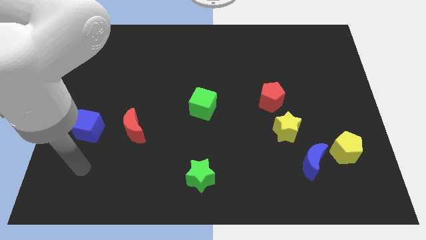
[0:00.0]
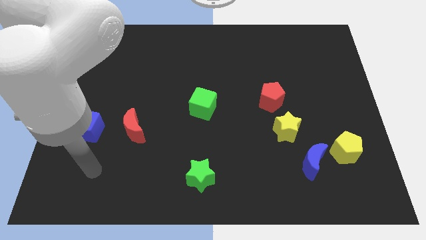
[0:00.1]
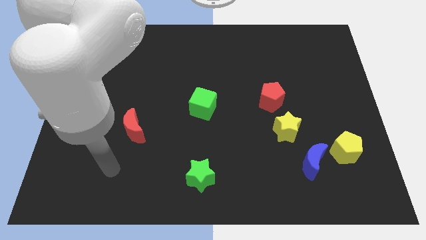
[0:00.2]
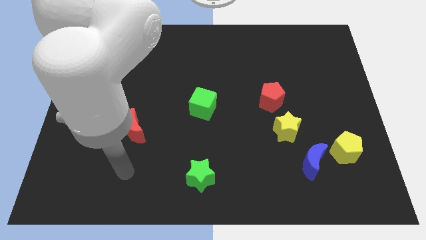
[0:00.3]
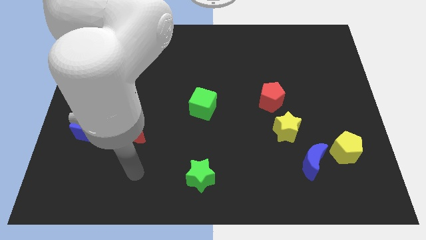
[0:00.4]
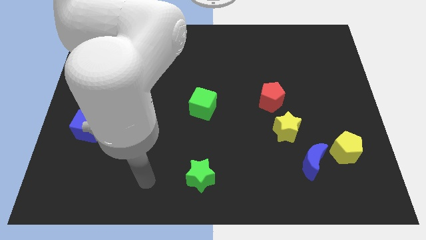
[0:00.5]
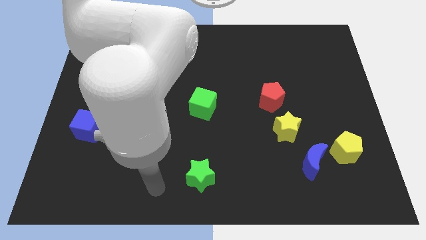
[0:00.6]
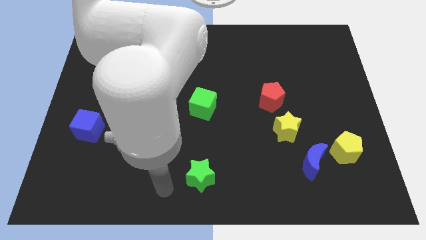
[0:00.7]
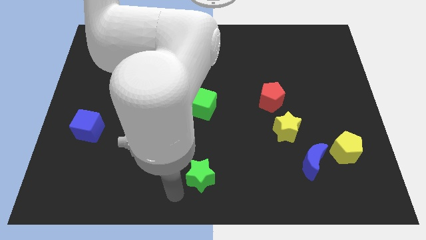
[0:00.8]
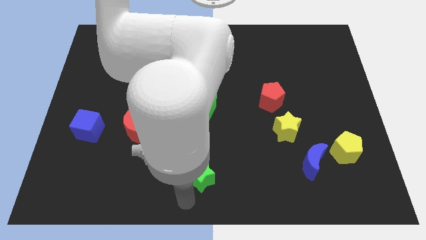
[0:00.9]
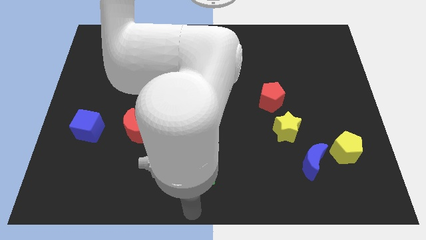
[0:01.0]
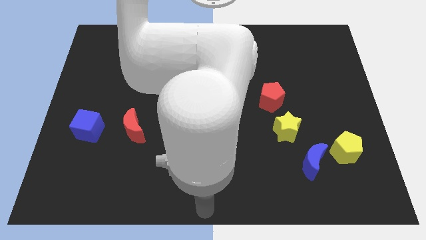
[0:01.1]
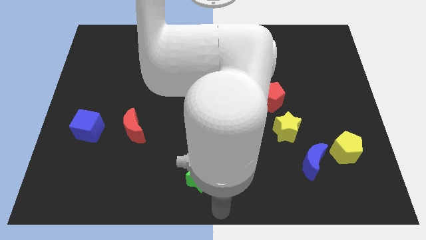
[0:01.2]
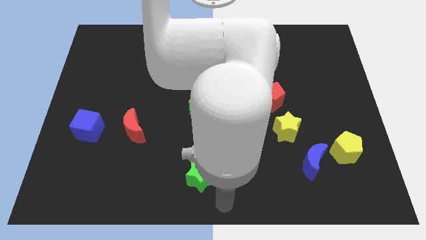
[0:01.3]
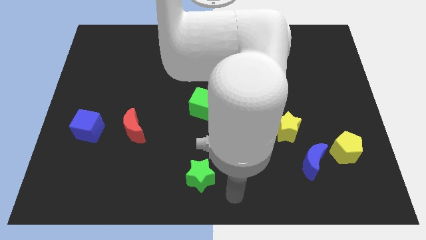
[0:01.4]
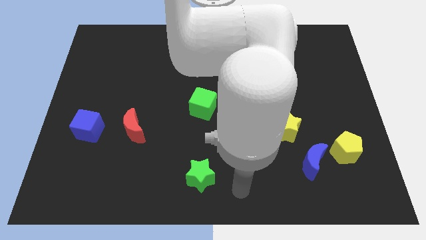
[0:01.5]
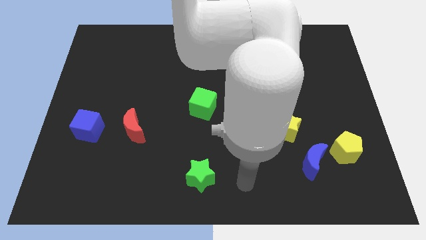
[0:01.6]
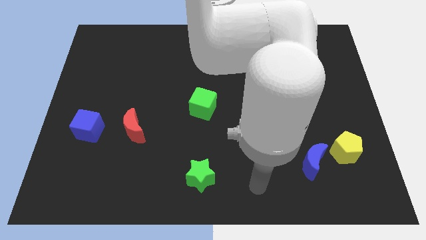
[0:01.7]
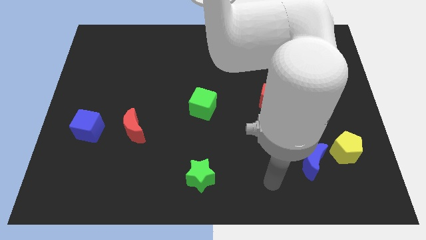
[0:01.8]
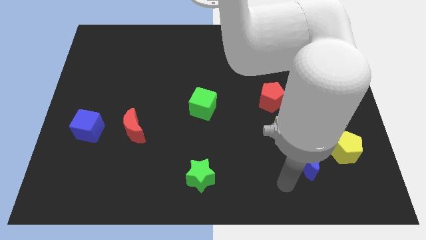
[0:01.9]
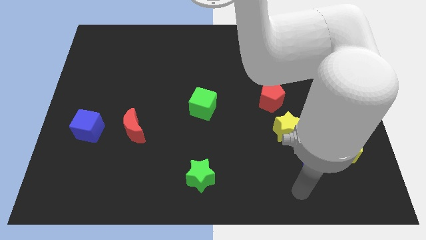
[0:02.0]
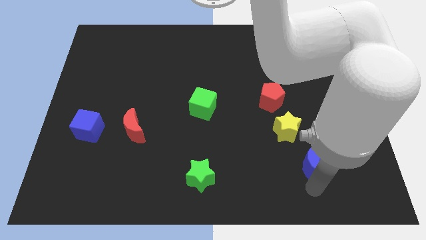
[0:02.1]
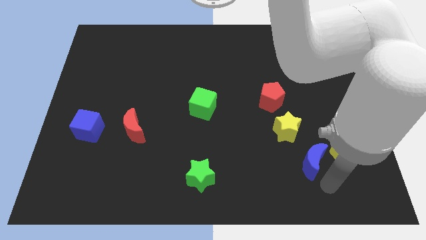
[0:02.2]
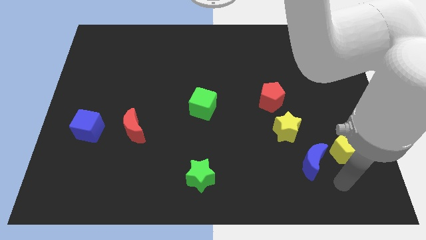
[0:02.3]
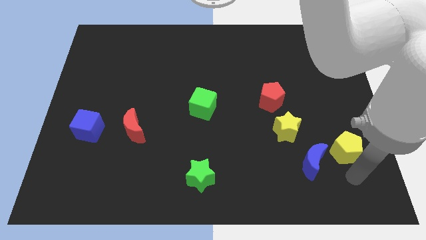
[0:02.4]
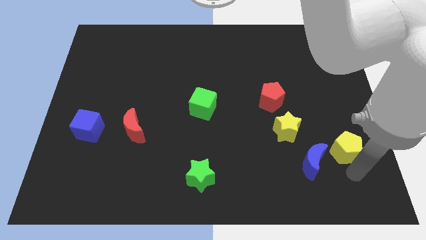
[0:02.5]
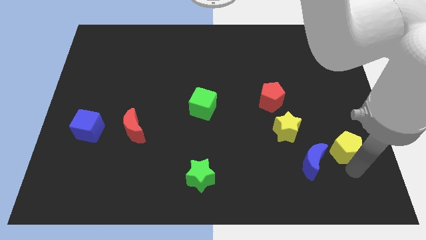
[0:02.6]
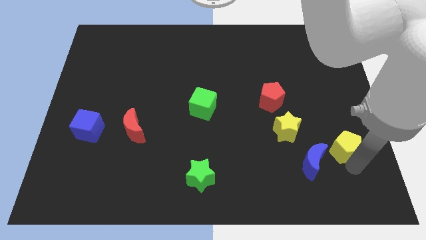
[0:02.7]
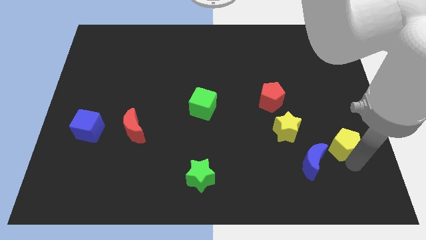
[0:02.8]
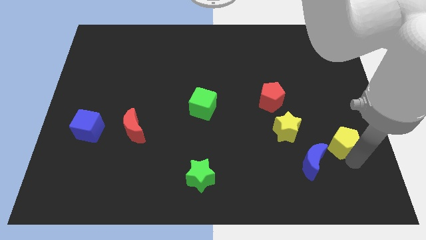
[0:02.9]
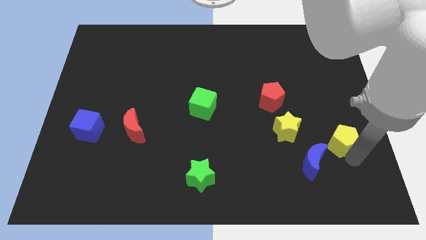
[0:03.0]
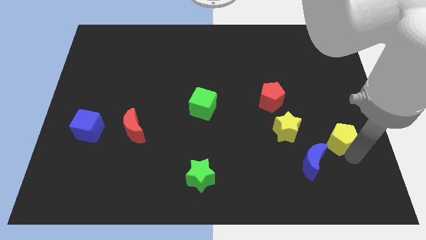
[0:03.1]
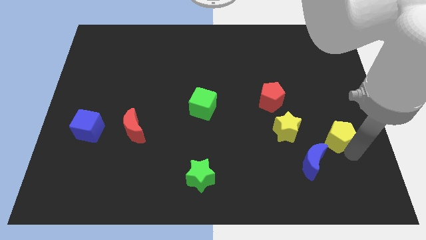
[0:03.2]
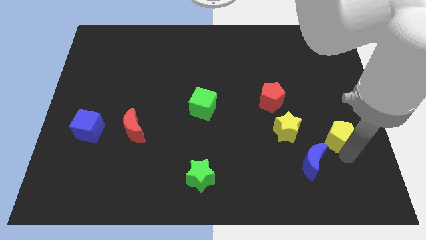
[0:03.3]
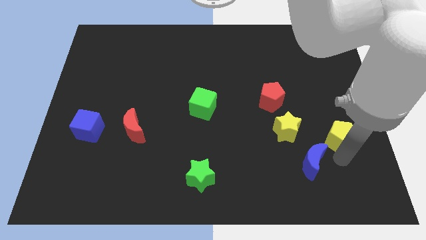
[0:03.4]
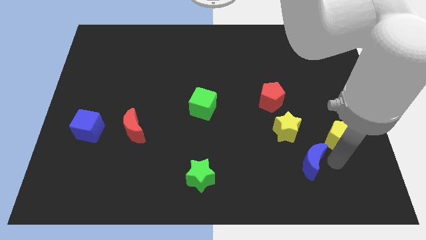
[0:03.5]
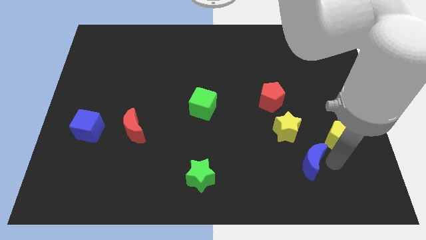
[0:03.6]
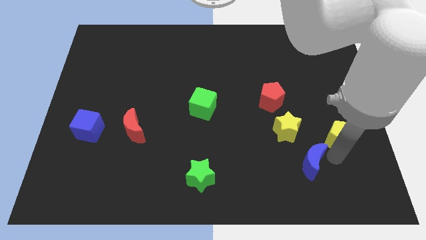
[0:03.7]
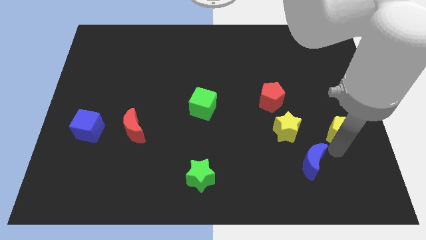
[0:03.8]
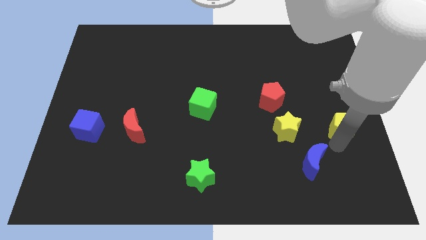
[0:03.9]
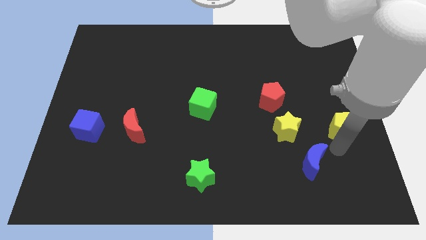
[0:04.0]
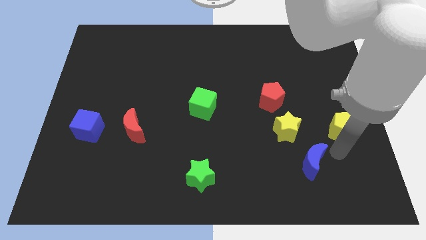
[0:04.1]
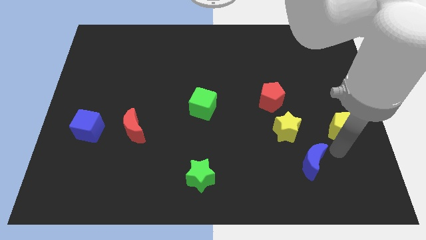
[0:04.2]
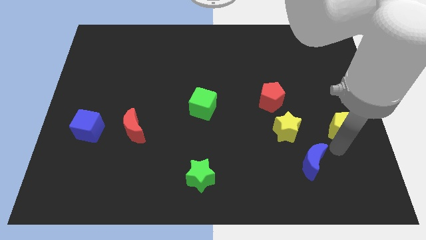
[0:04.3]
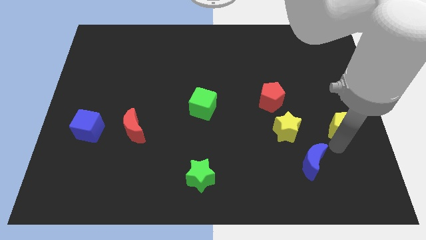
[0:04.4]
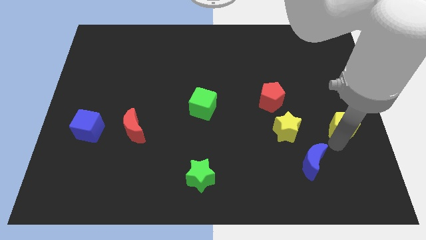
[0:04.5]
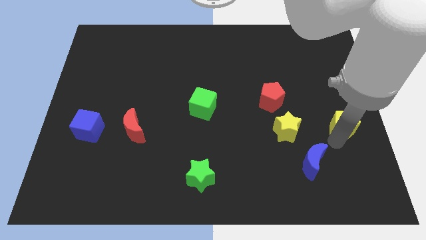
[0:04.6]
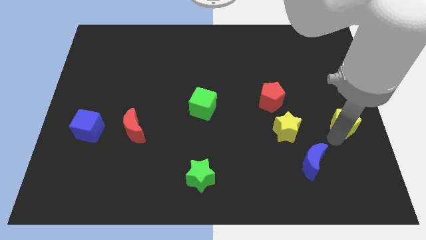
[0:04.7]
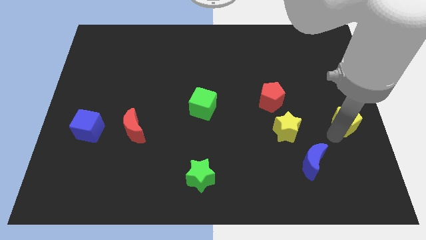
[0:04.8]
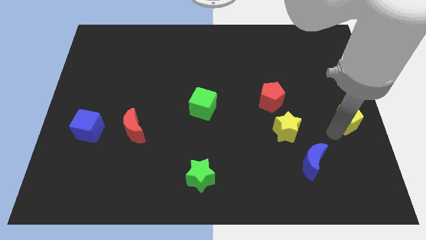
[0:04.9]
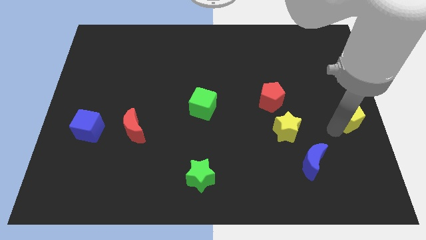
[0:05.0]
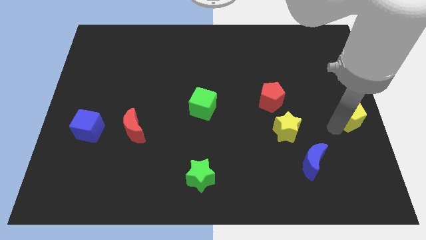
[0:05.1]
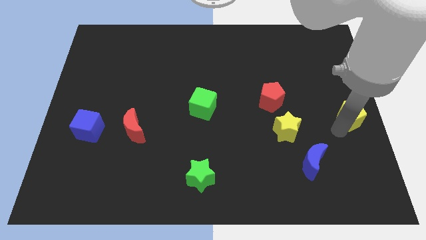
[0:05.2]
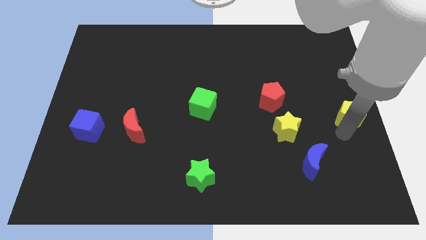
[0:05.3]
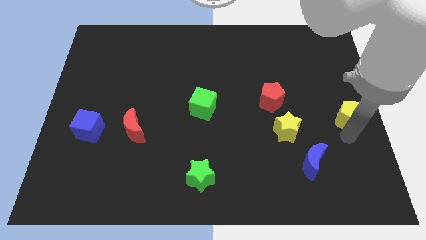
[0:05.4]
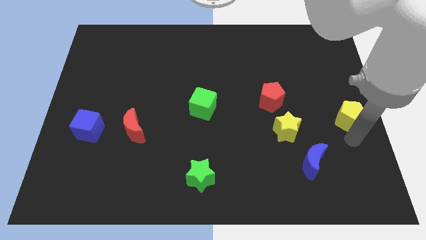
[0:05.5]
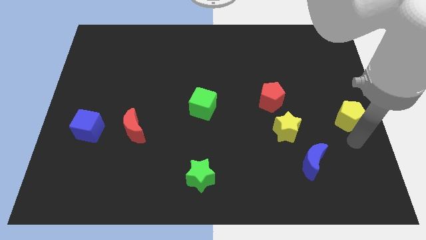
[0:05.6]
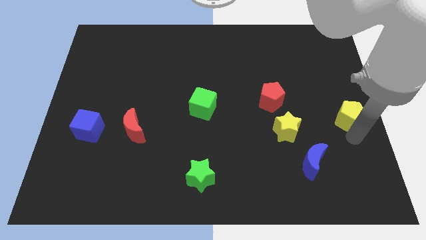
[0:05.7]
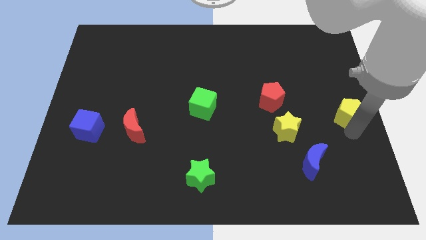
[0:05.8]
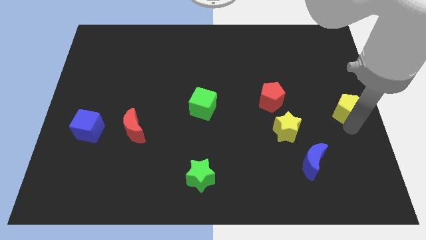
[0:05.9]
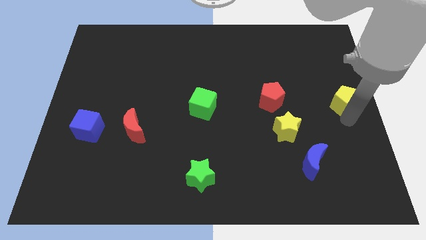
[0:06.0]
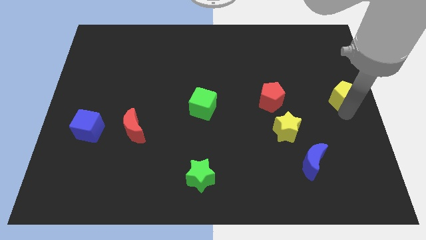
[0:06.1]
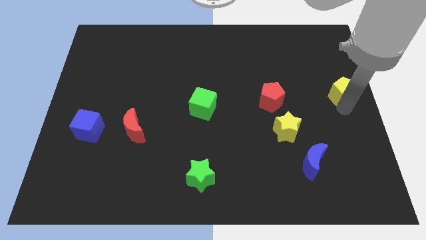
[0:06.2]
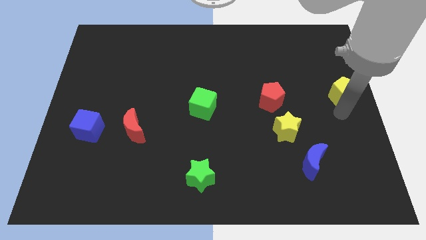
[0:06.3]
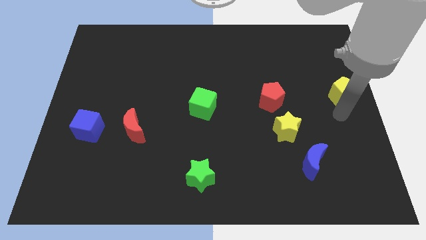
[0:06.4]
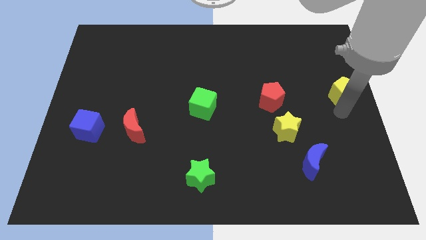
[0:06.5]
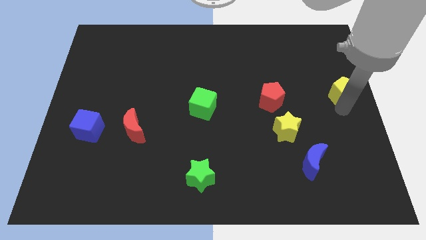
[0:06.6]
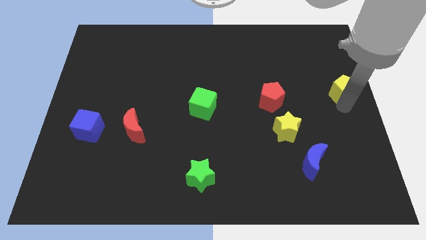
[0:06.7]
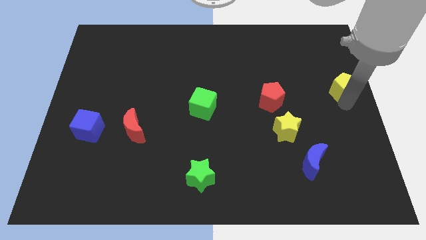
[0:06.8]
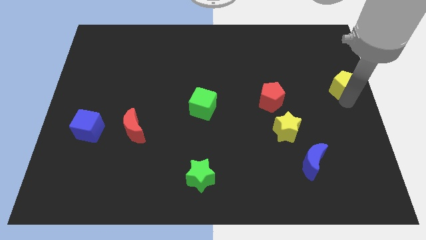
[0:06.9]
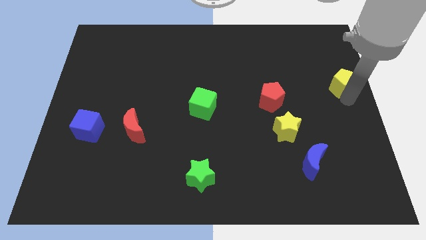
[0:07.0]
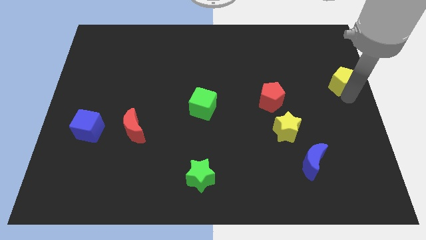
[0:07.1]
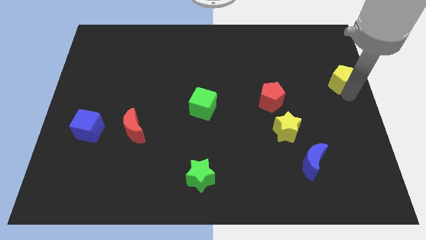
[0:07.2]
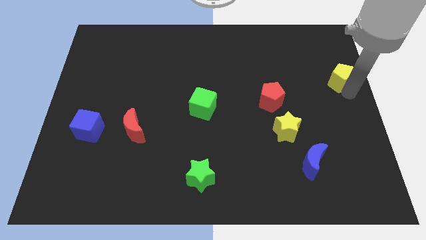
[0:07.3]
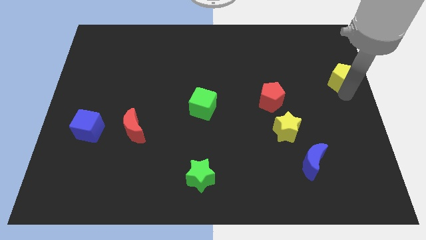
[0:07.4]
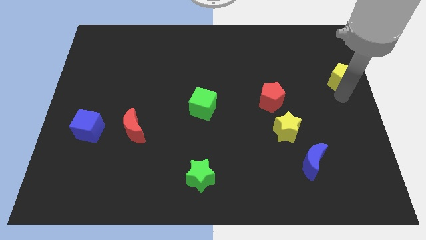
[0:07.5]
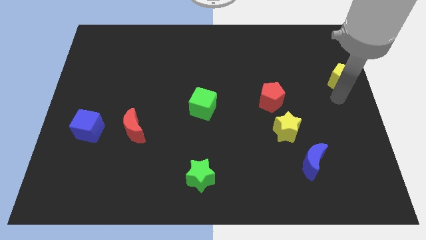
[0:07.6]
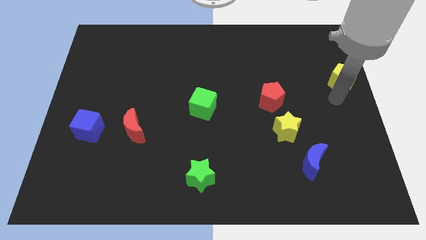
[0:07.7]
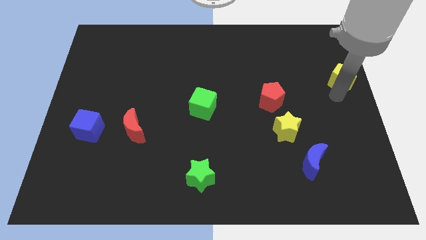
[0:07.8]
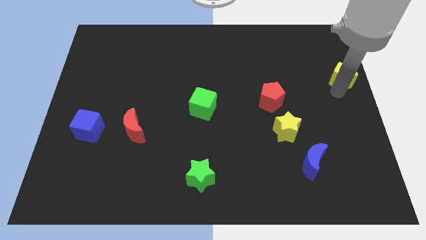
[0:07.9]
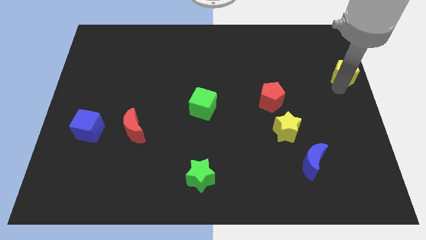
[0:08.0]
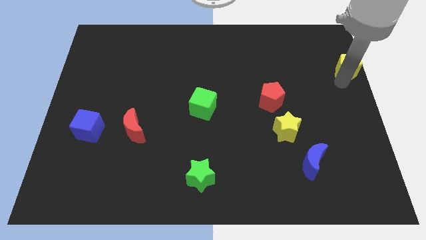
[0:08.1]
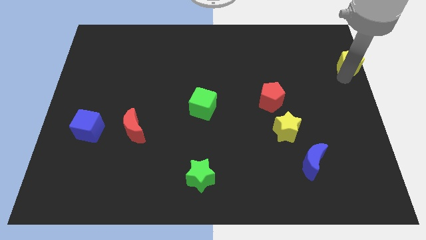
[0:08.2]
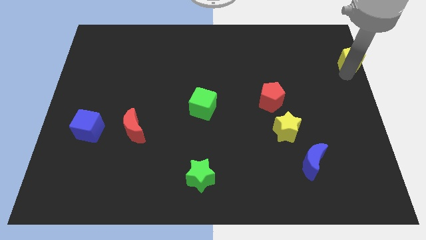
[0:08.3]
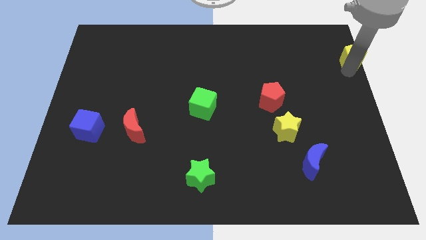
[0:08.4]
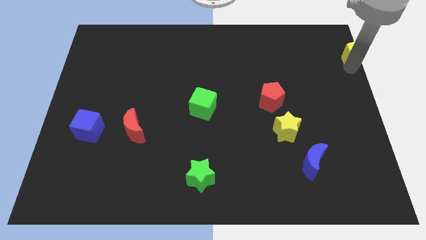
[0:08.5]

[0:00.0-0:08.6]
move the yellow pentagon to the top right corner
